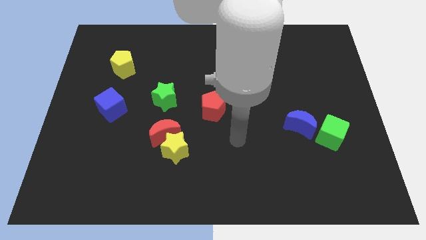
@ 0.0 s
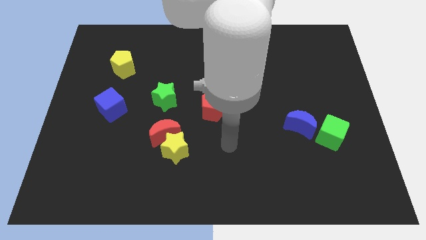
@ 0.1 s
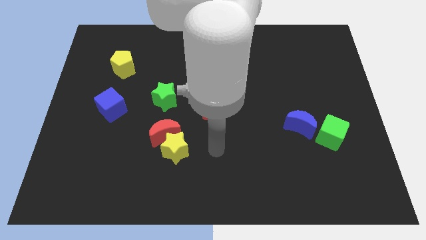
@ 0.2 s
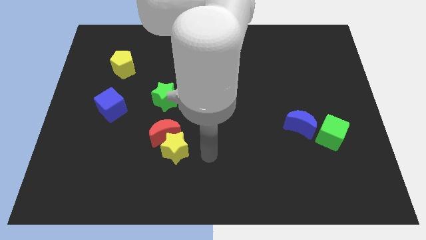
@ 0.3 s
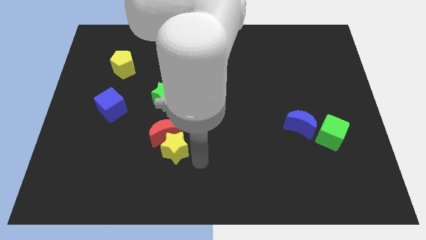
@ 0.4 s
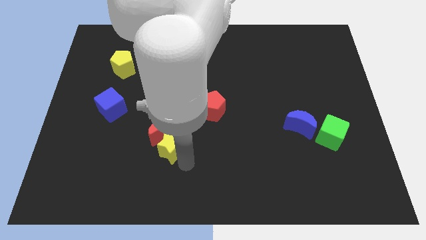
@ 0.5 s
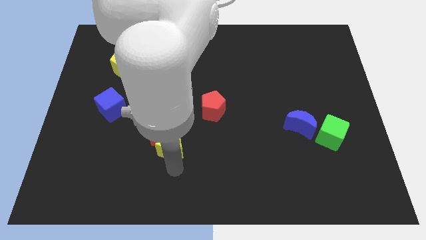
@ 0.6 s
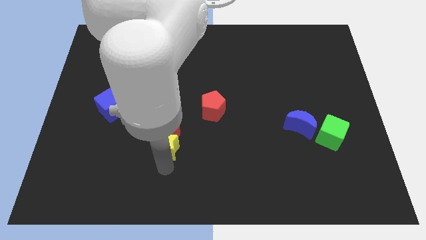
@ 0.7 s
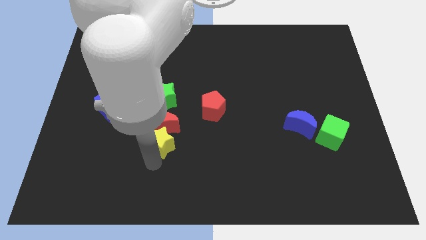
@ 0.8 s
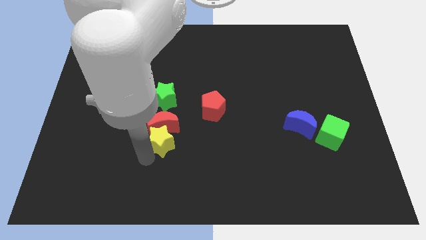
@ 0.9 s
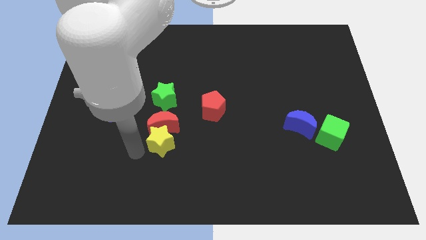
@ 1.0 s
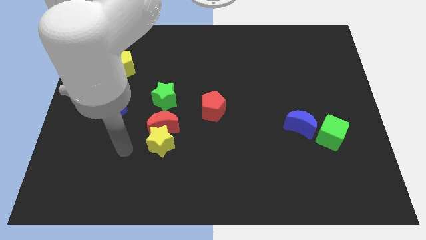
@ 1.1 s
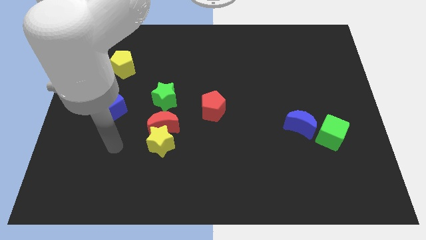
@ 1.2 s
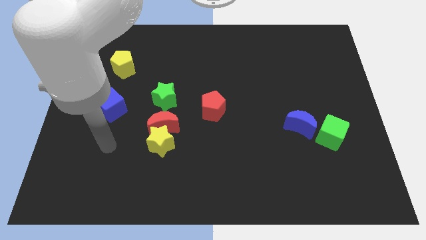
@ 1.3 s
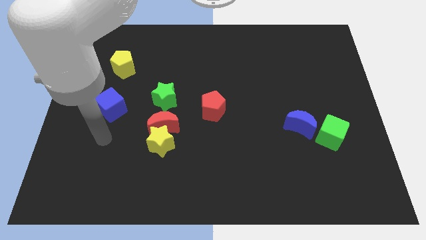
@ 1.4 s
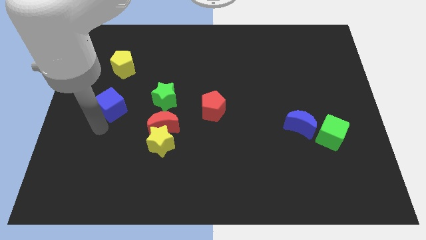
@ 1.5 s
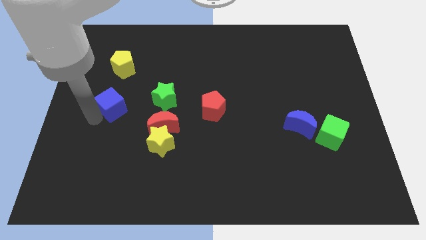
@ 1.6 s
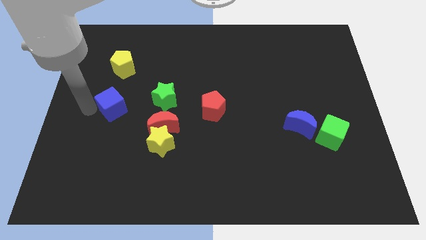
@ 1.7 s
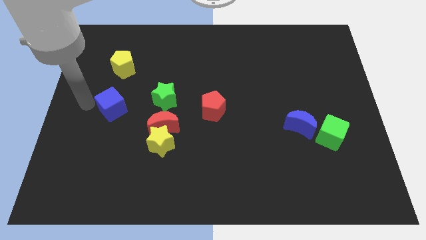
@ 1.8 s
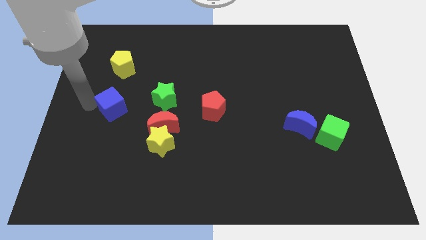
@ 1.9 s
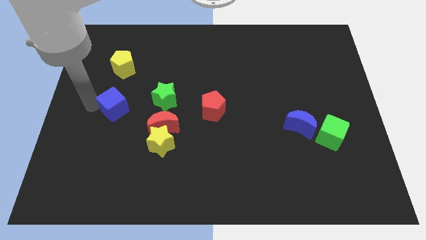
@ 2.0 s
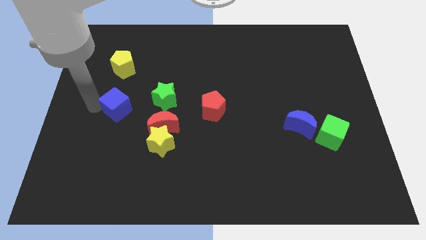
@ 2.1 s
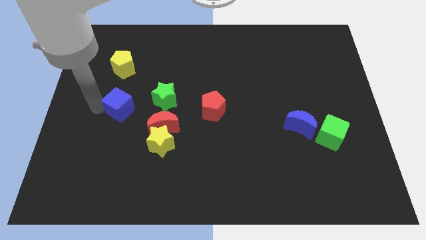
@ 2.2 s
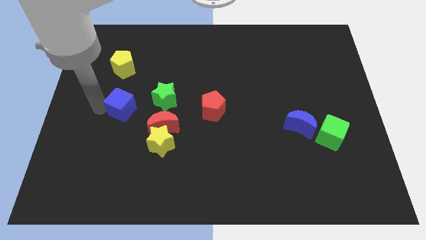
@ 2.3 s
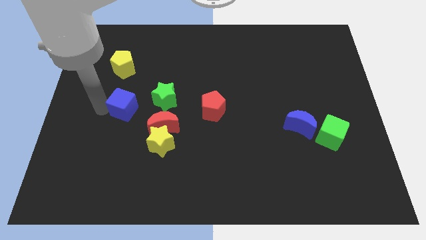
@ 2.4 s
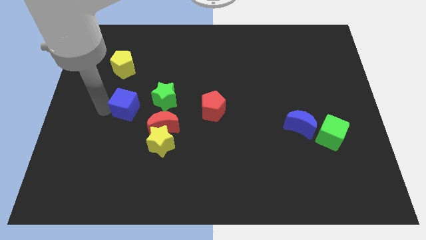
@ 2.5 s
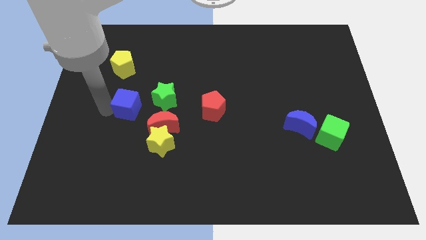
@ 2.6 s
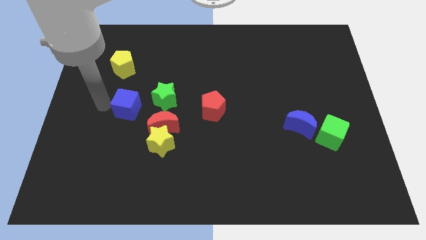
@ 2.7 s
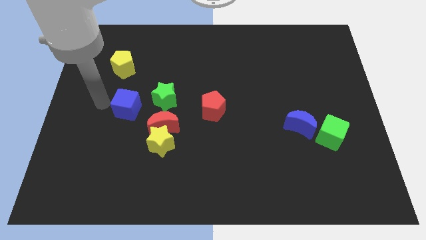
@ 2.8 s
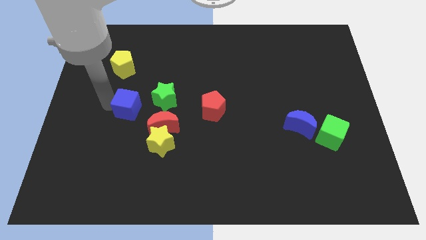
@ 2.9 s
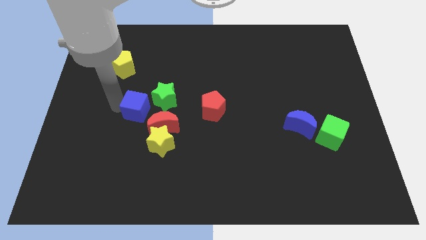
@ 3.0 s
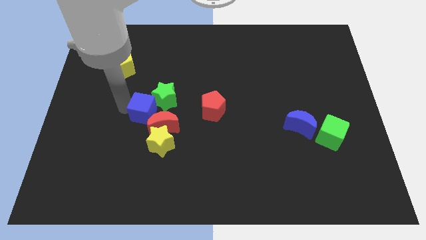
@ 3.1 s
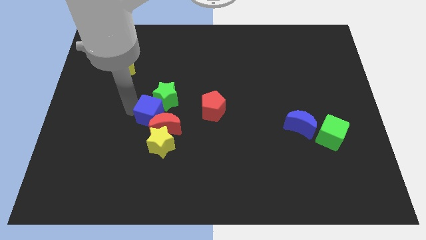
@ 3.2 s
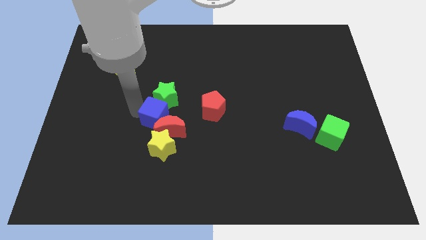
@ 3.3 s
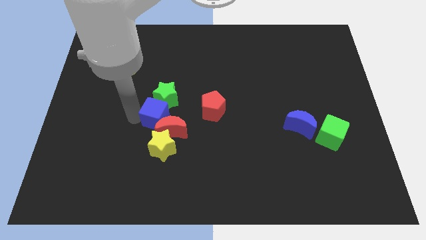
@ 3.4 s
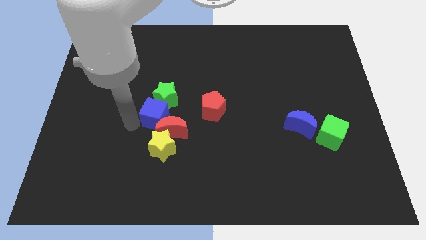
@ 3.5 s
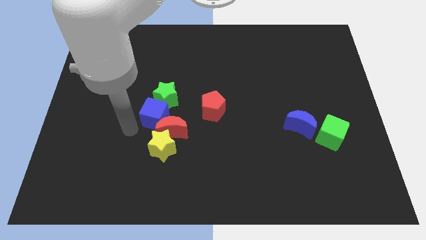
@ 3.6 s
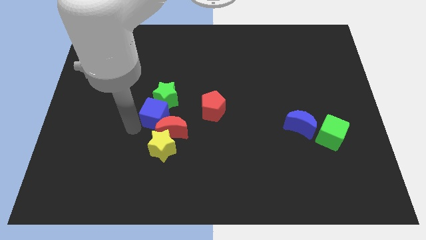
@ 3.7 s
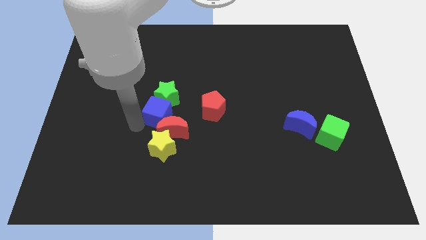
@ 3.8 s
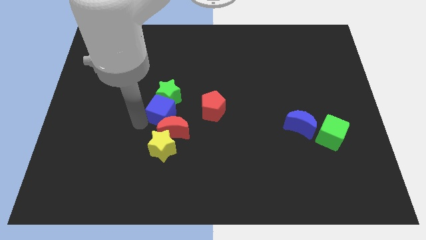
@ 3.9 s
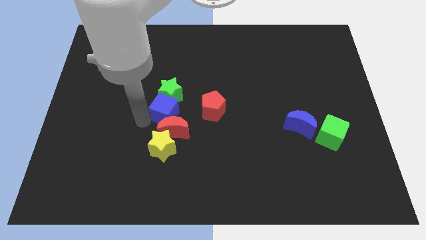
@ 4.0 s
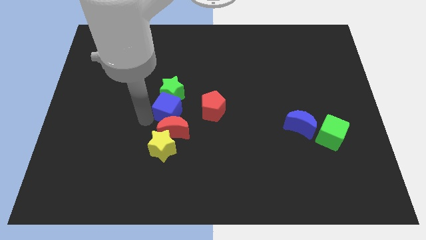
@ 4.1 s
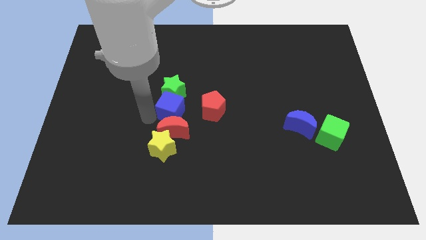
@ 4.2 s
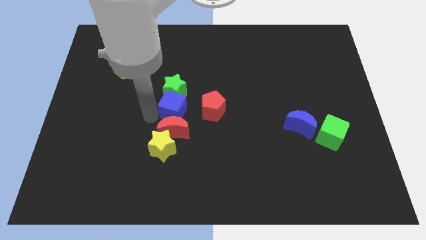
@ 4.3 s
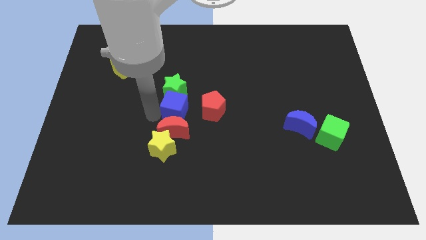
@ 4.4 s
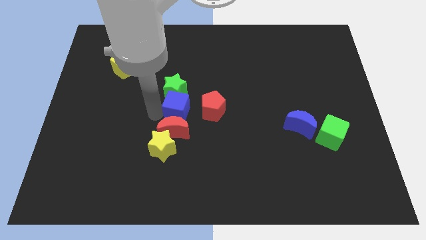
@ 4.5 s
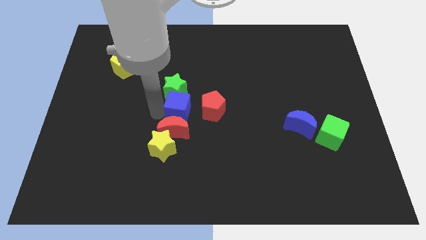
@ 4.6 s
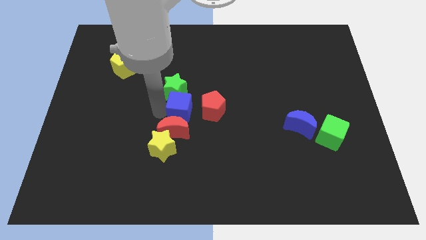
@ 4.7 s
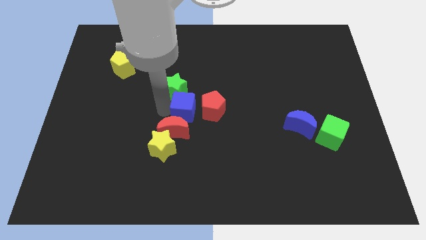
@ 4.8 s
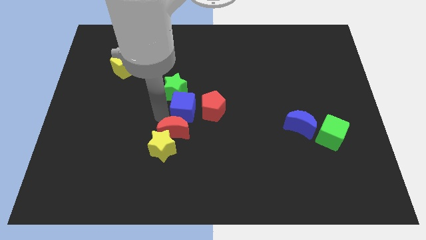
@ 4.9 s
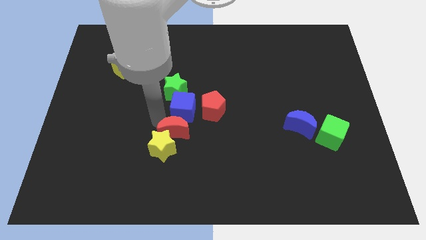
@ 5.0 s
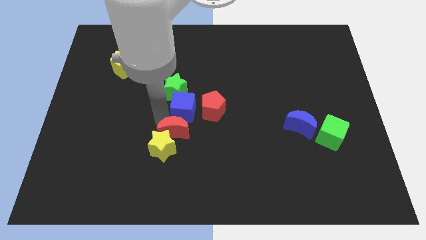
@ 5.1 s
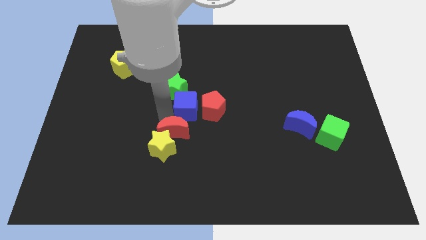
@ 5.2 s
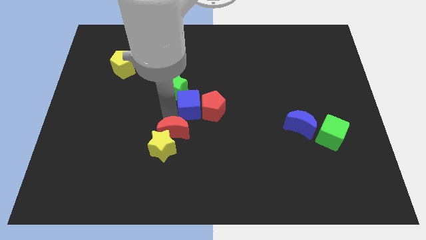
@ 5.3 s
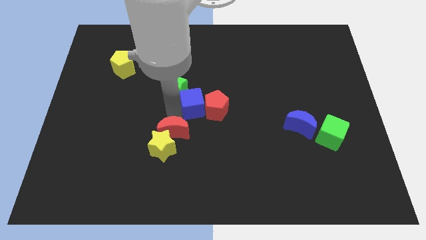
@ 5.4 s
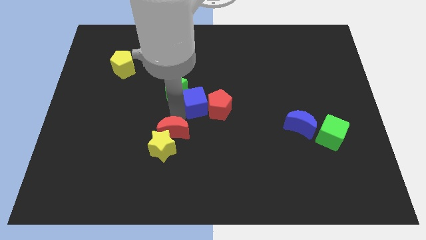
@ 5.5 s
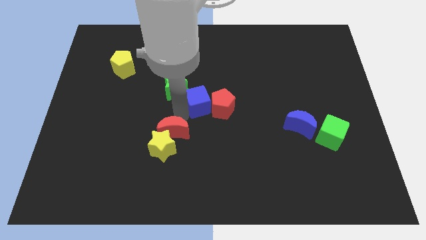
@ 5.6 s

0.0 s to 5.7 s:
push the blue cube right

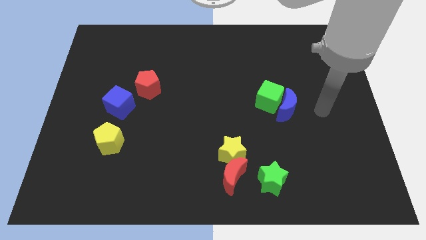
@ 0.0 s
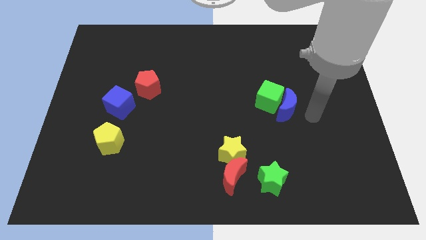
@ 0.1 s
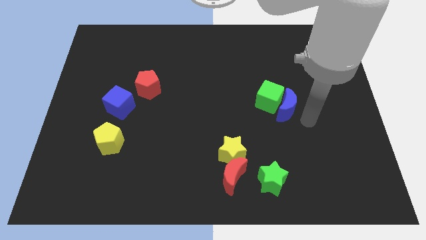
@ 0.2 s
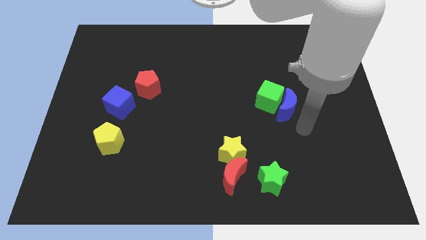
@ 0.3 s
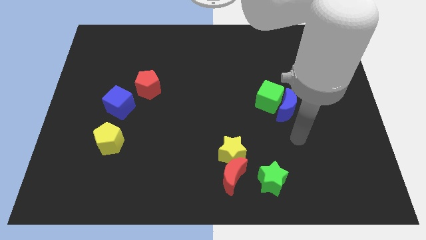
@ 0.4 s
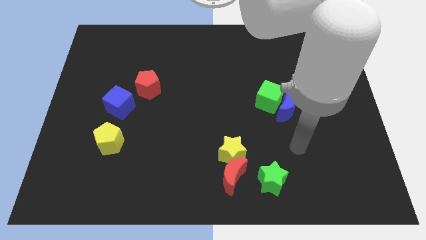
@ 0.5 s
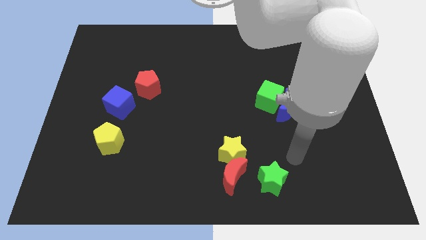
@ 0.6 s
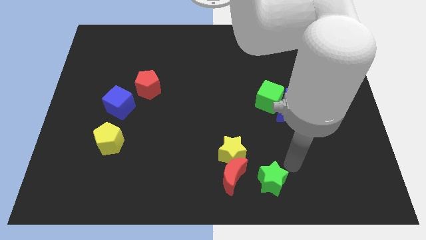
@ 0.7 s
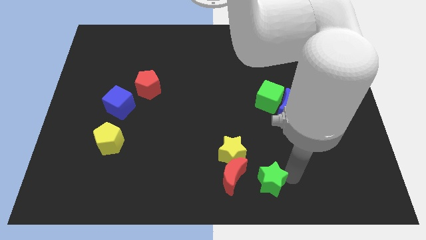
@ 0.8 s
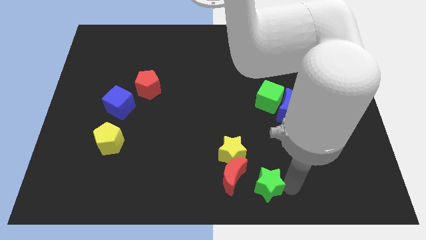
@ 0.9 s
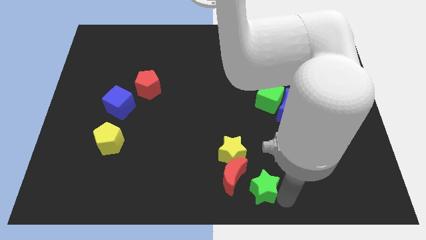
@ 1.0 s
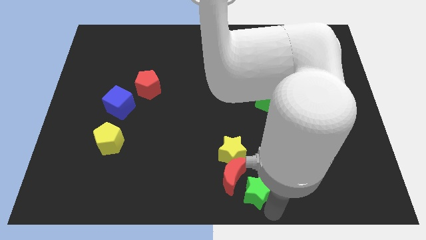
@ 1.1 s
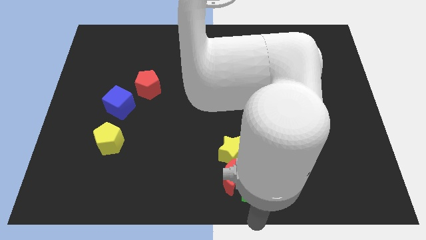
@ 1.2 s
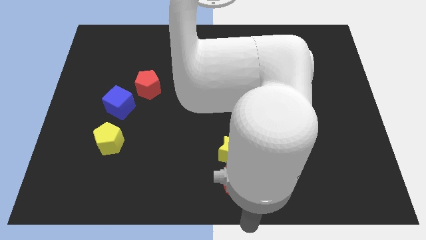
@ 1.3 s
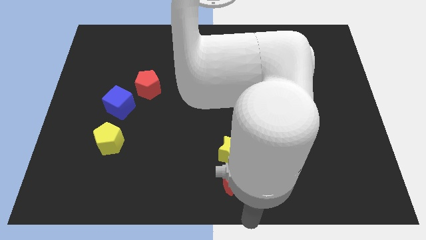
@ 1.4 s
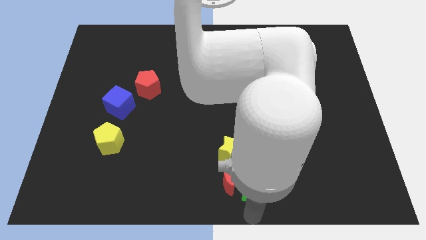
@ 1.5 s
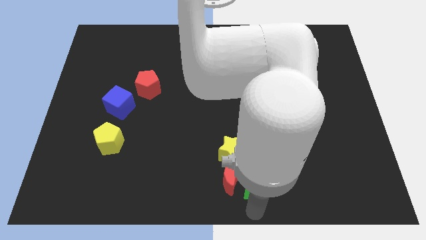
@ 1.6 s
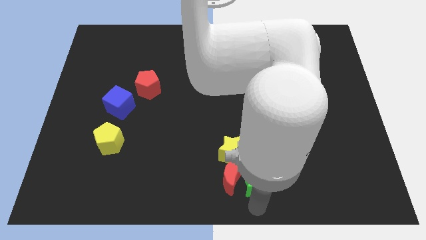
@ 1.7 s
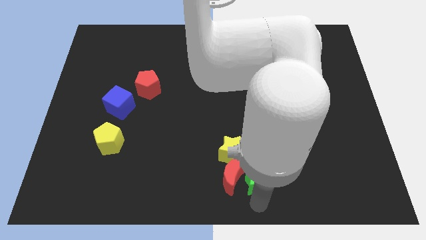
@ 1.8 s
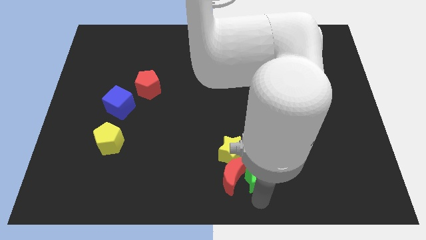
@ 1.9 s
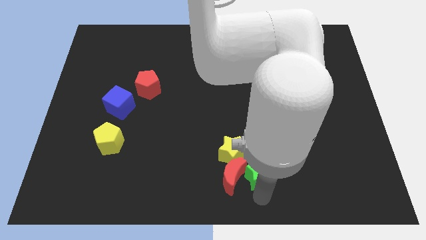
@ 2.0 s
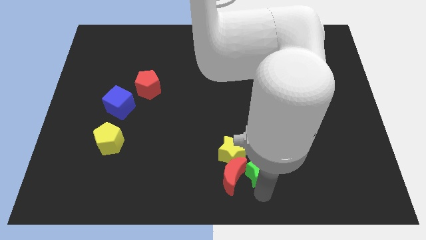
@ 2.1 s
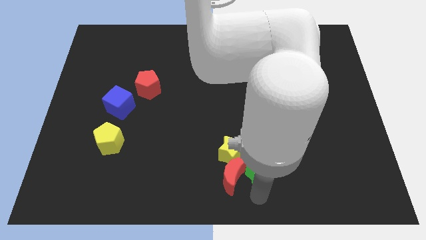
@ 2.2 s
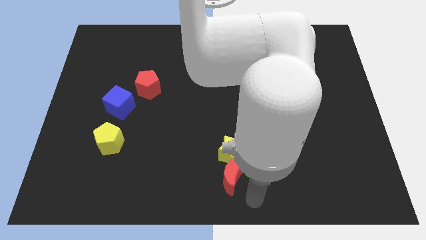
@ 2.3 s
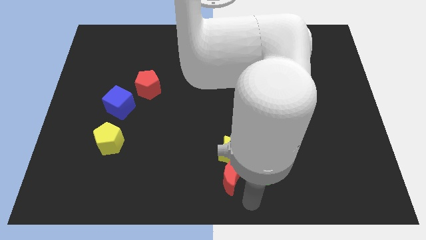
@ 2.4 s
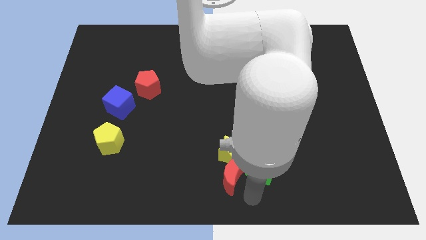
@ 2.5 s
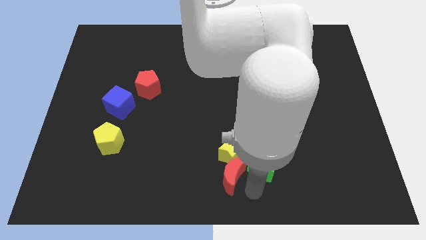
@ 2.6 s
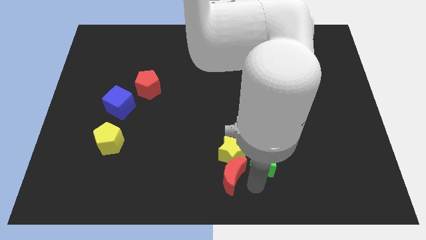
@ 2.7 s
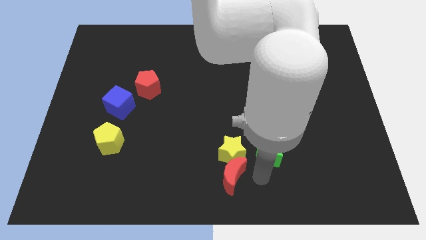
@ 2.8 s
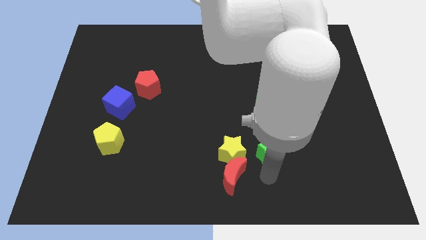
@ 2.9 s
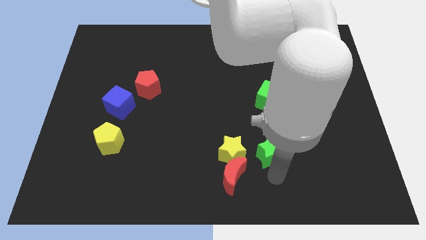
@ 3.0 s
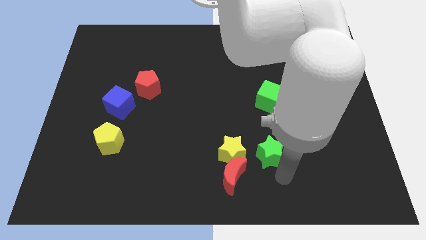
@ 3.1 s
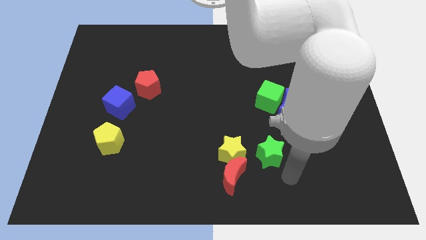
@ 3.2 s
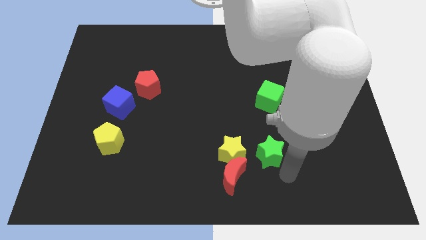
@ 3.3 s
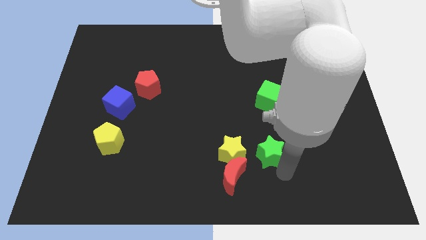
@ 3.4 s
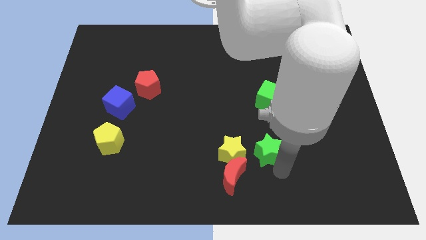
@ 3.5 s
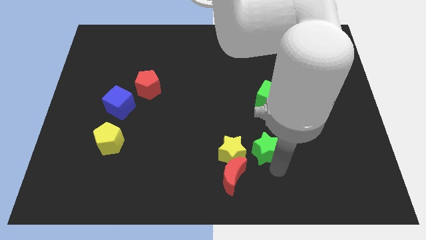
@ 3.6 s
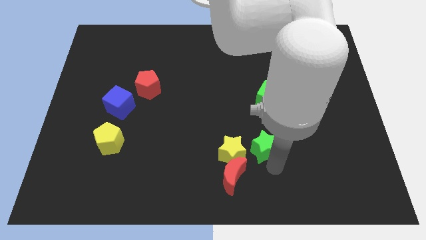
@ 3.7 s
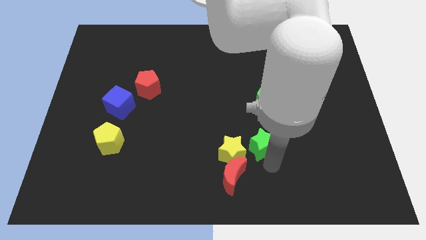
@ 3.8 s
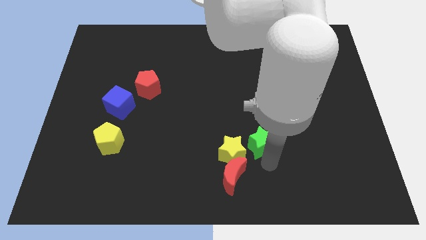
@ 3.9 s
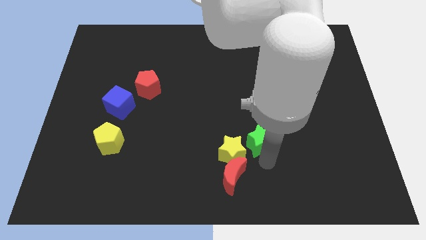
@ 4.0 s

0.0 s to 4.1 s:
push the green star a bit upwards and left diagonally
